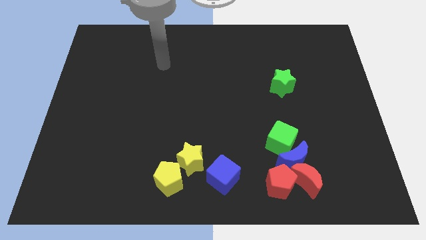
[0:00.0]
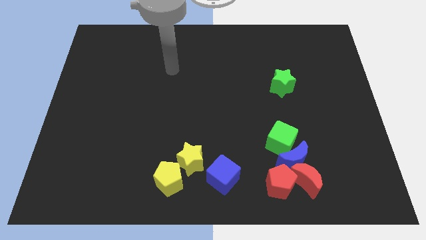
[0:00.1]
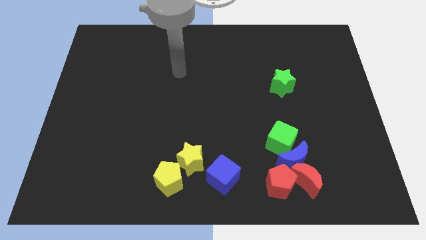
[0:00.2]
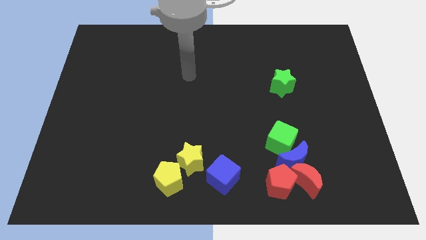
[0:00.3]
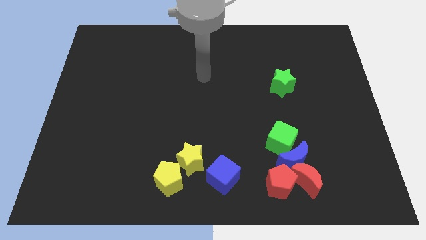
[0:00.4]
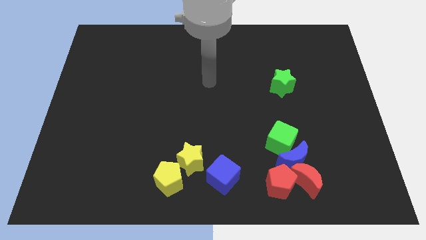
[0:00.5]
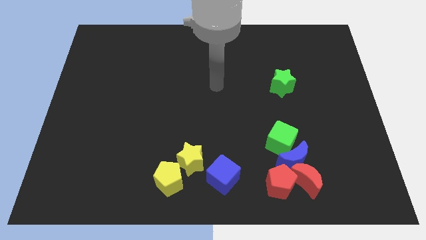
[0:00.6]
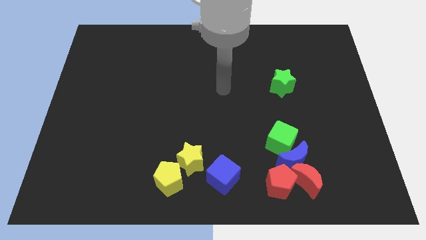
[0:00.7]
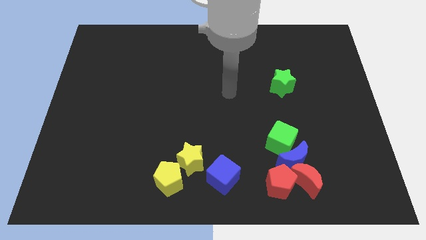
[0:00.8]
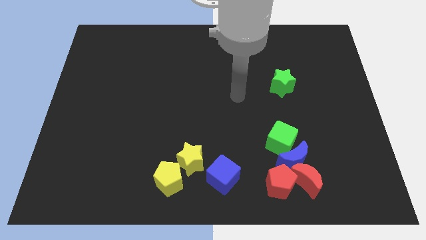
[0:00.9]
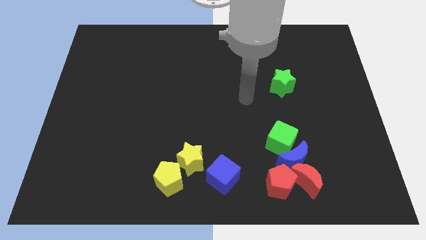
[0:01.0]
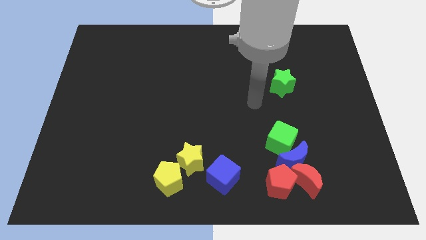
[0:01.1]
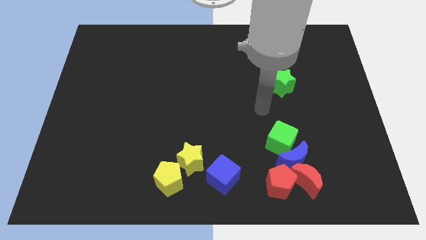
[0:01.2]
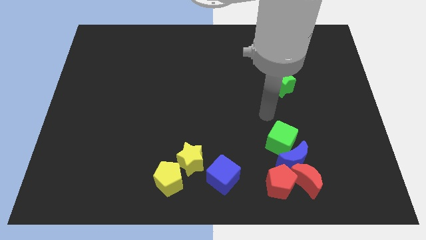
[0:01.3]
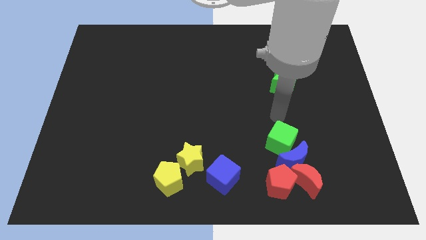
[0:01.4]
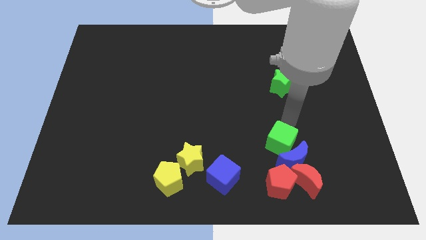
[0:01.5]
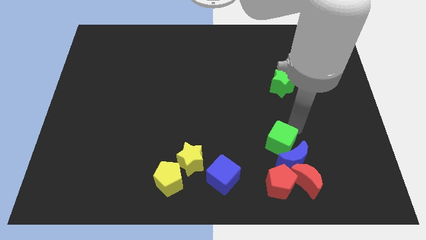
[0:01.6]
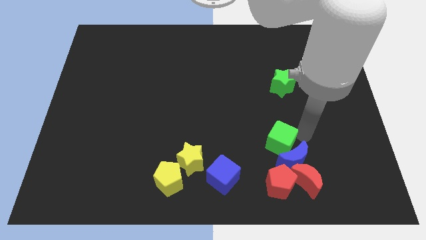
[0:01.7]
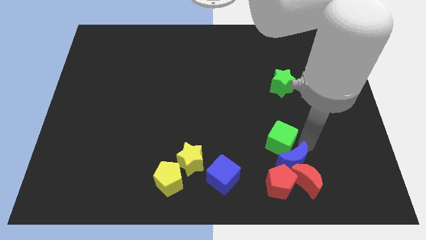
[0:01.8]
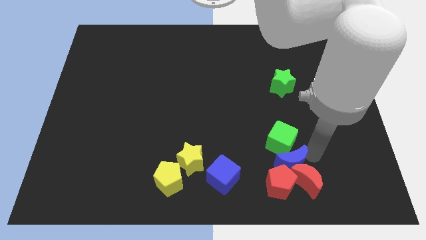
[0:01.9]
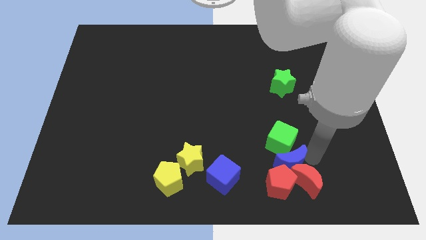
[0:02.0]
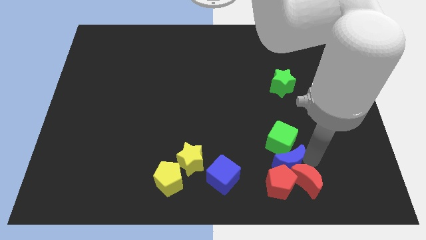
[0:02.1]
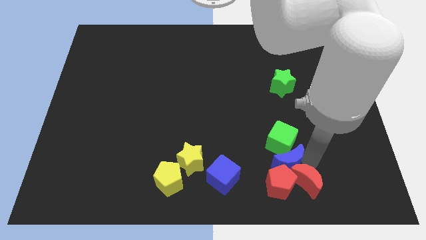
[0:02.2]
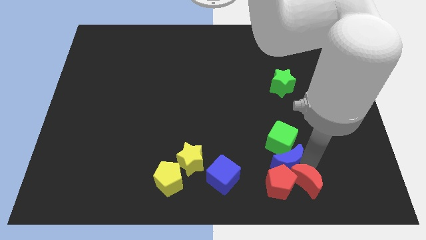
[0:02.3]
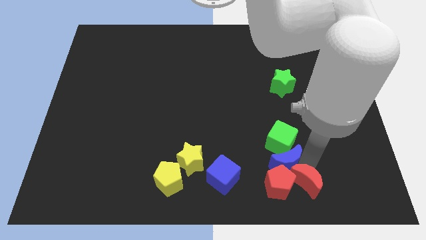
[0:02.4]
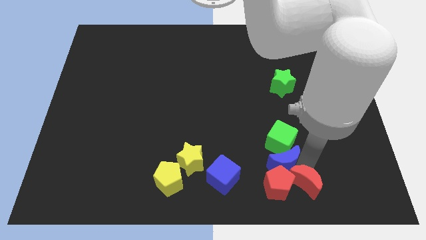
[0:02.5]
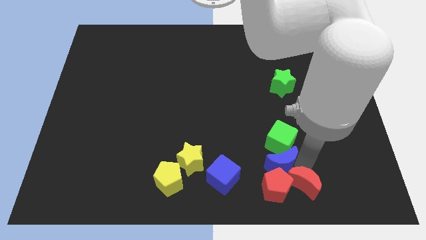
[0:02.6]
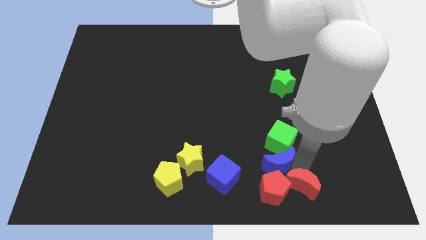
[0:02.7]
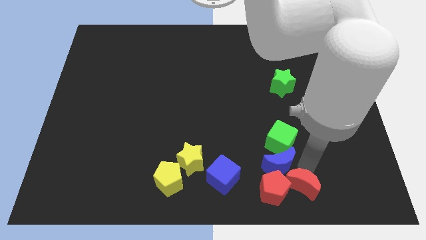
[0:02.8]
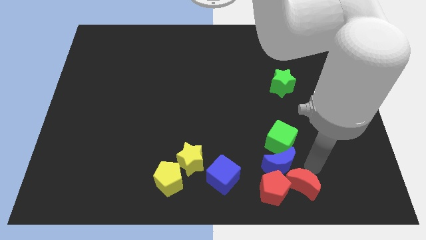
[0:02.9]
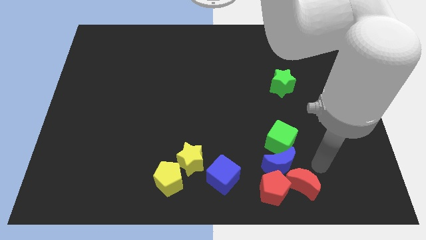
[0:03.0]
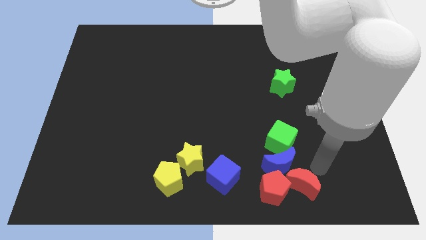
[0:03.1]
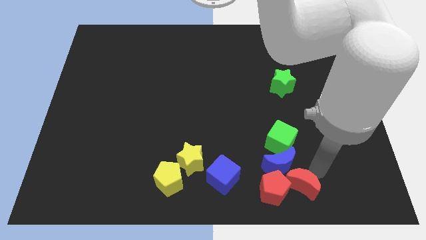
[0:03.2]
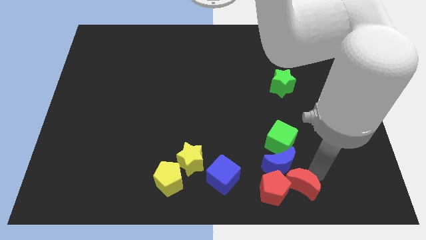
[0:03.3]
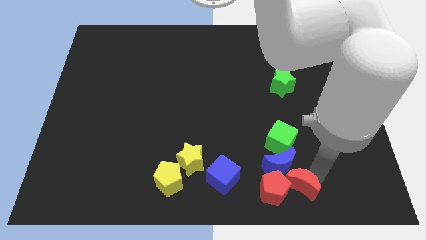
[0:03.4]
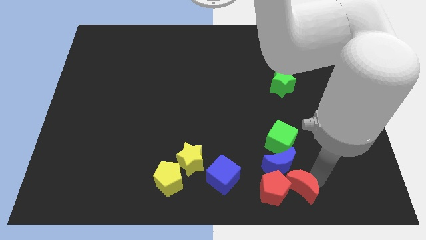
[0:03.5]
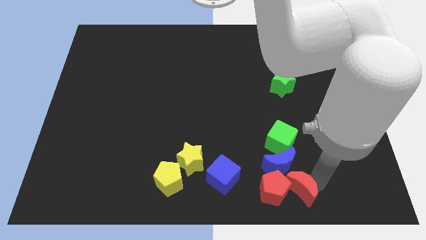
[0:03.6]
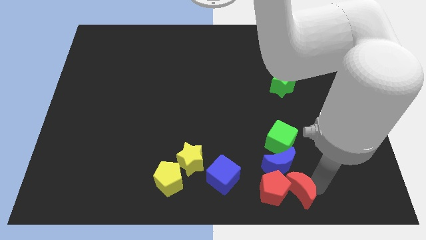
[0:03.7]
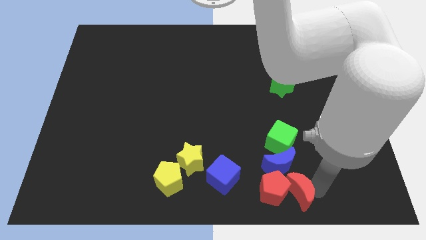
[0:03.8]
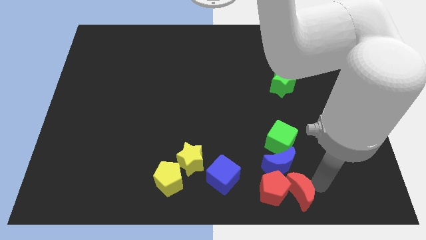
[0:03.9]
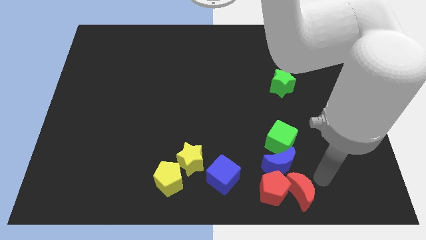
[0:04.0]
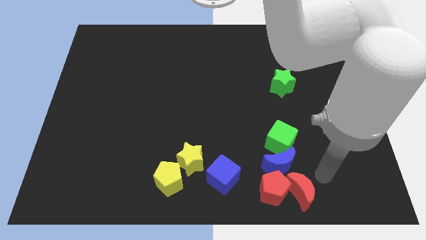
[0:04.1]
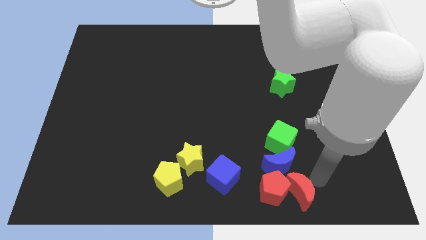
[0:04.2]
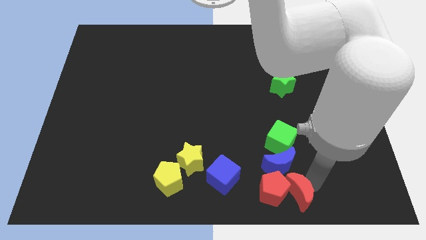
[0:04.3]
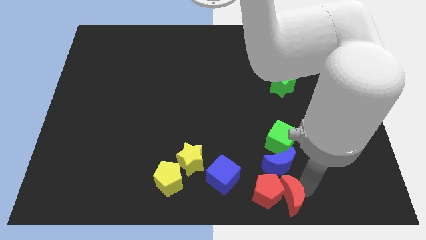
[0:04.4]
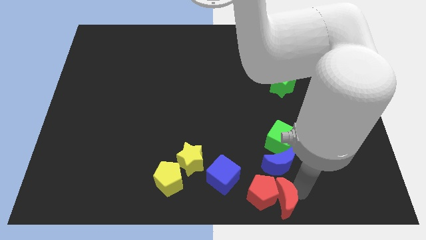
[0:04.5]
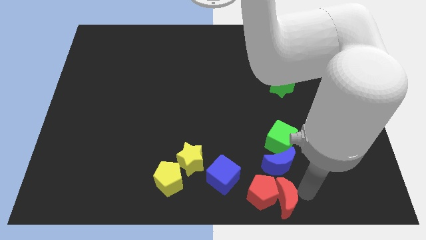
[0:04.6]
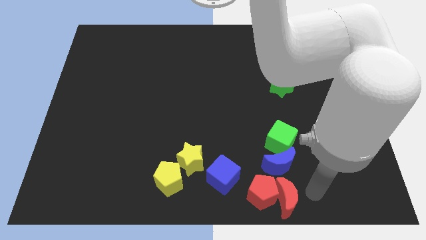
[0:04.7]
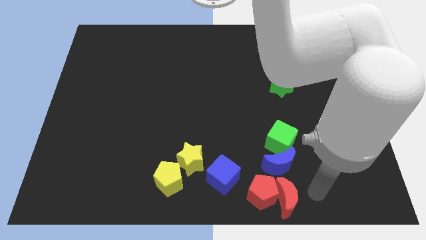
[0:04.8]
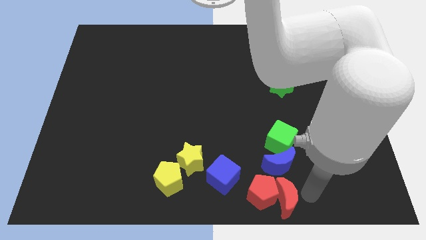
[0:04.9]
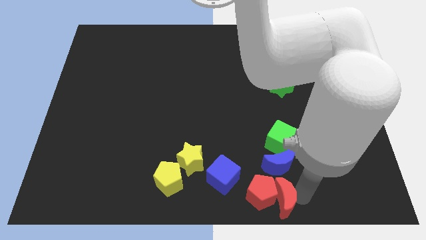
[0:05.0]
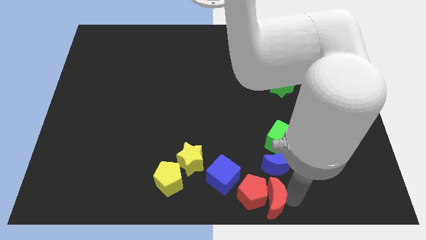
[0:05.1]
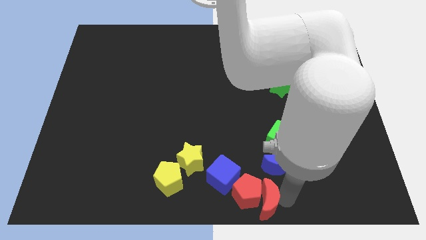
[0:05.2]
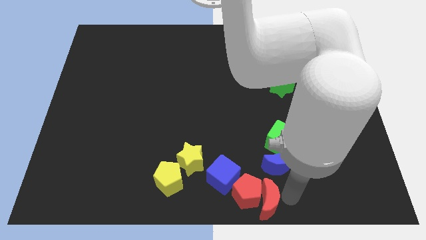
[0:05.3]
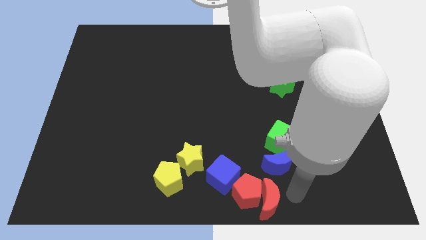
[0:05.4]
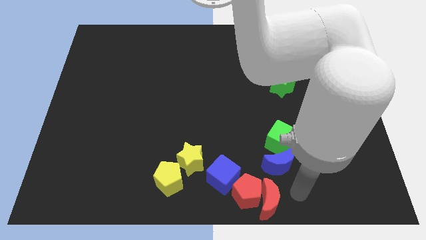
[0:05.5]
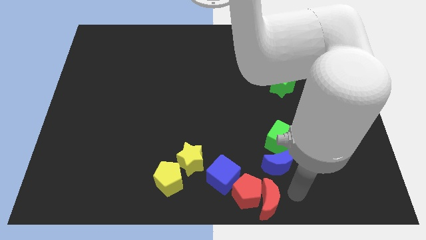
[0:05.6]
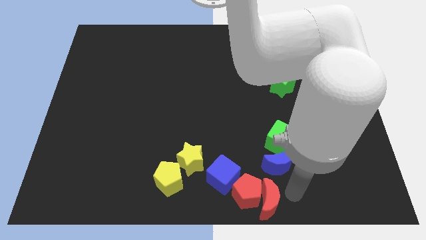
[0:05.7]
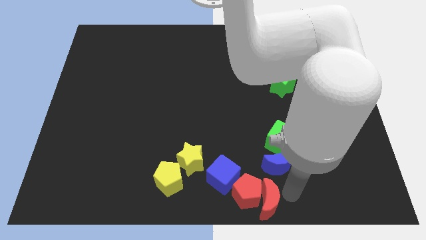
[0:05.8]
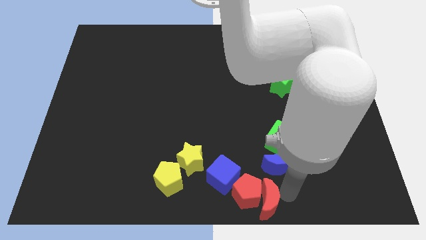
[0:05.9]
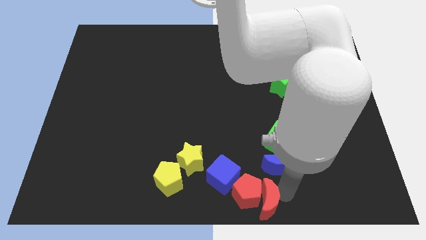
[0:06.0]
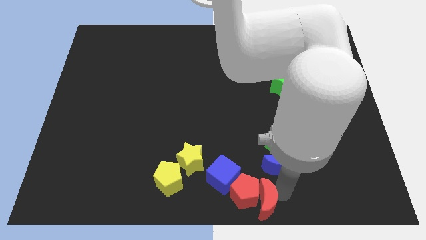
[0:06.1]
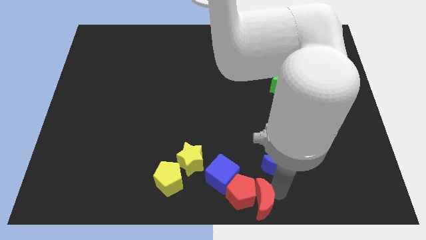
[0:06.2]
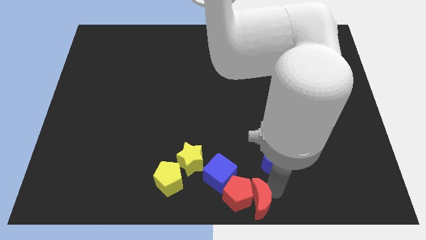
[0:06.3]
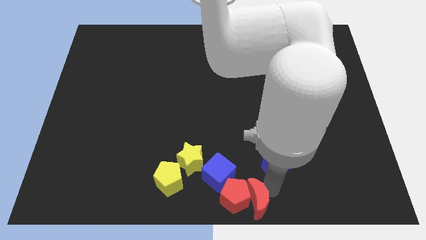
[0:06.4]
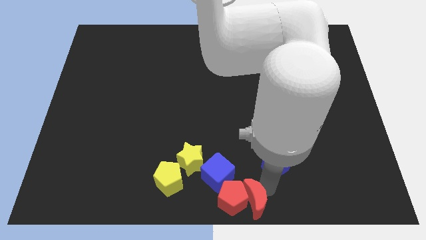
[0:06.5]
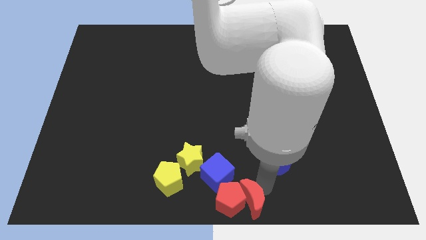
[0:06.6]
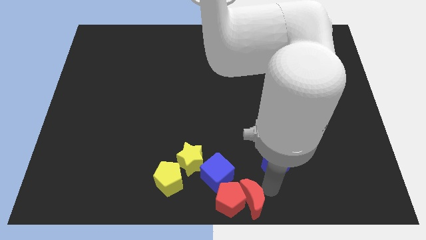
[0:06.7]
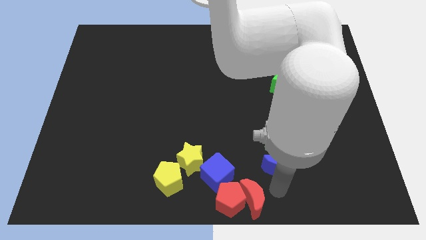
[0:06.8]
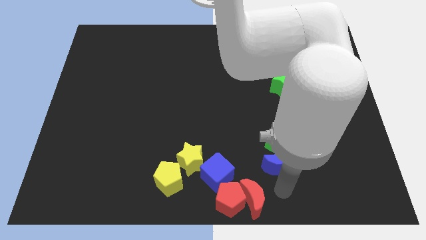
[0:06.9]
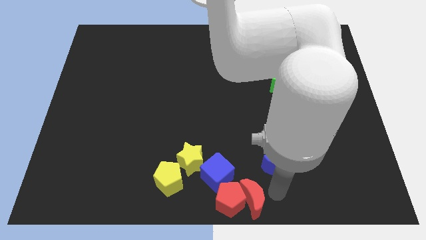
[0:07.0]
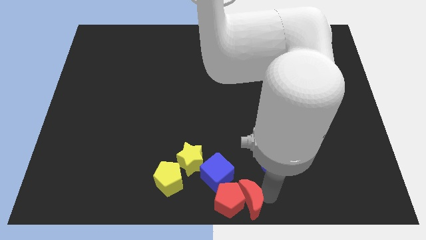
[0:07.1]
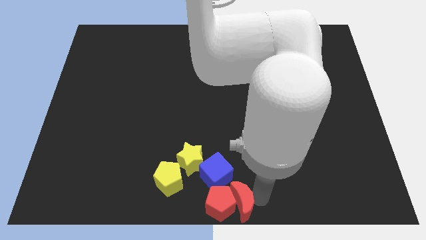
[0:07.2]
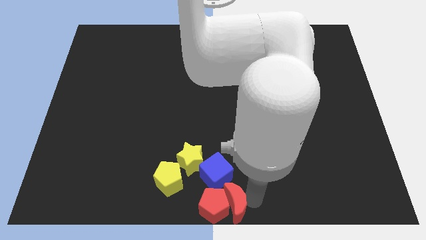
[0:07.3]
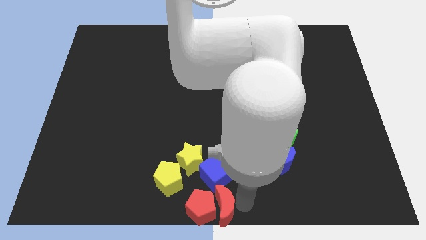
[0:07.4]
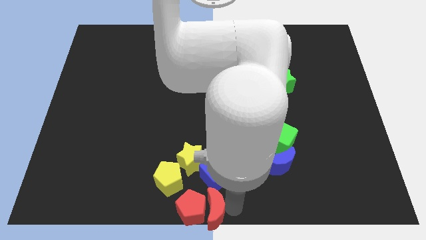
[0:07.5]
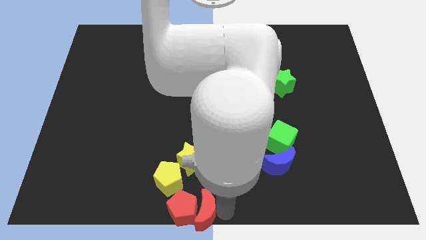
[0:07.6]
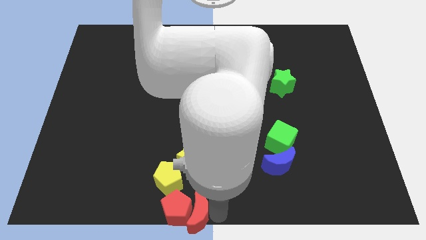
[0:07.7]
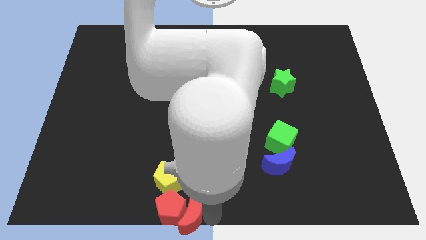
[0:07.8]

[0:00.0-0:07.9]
push the red moon left

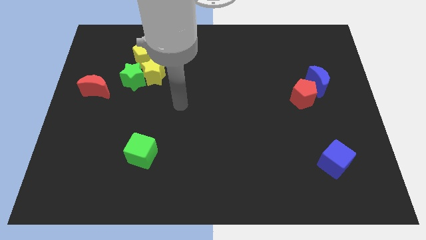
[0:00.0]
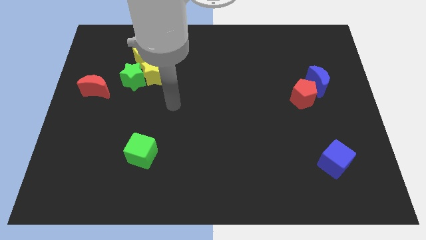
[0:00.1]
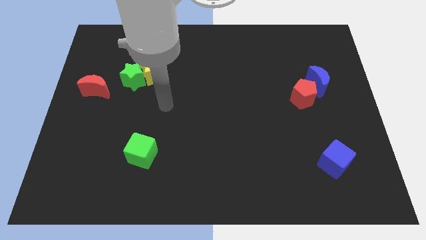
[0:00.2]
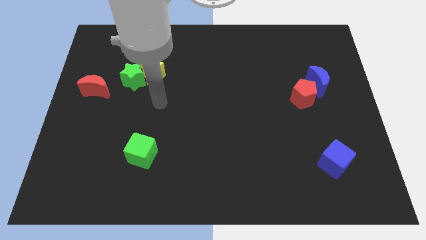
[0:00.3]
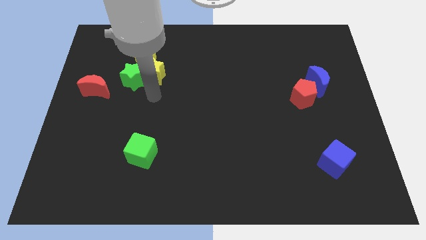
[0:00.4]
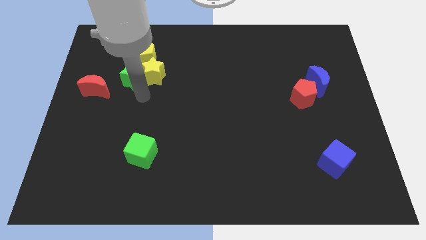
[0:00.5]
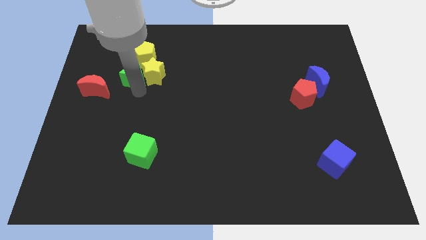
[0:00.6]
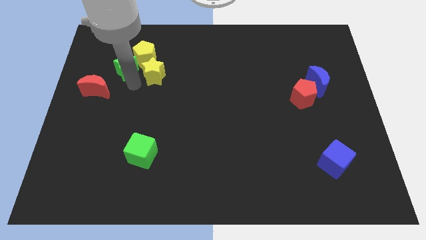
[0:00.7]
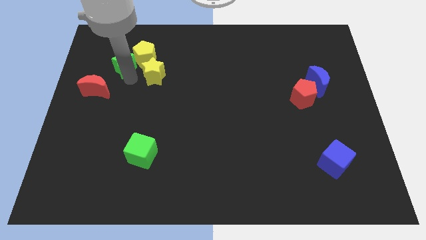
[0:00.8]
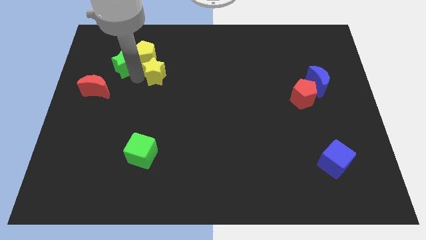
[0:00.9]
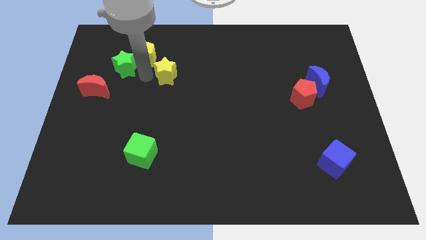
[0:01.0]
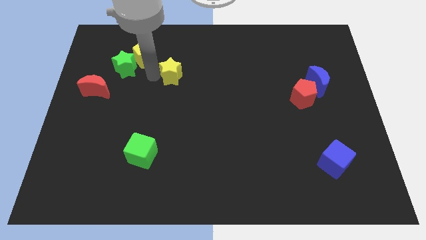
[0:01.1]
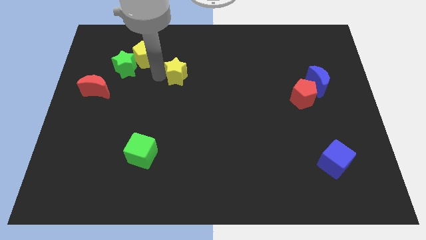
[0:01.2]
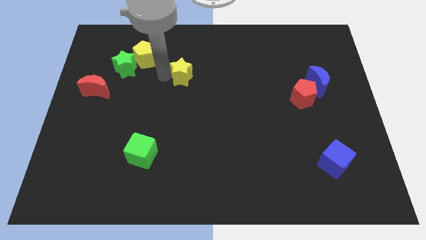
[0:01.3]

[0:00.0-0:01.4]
slightly push the yellow star right
